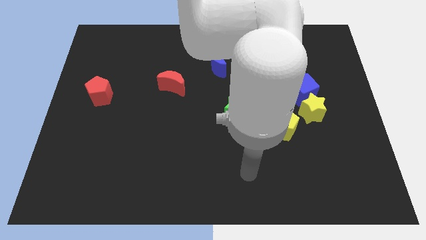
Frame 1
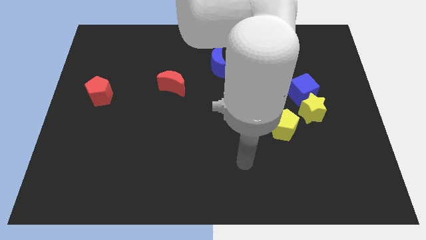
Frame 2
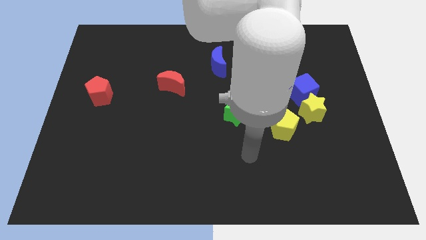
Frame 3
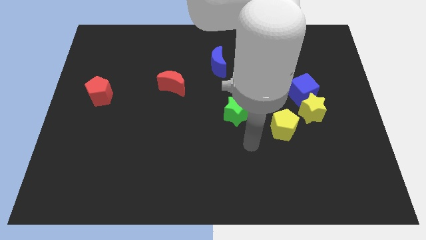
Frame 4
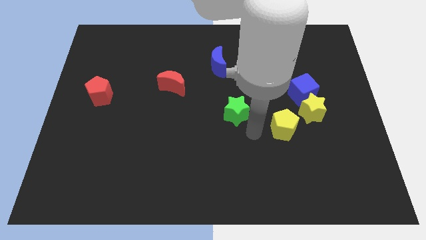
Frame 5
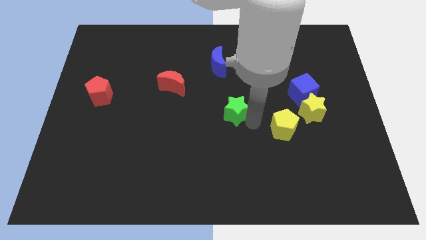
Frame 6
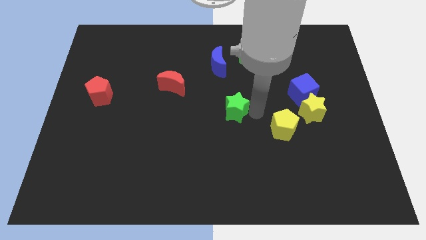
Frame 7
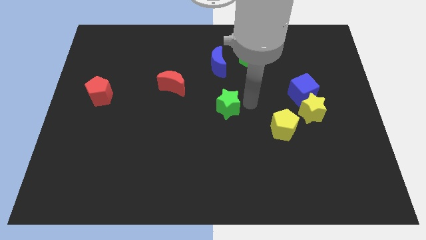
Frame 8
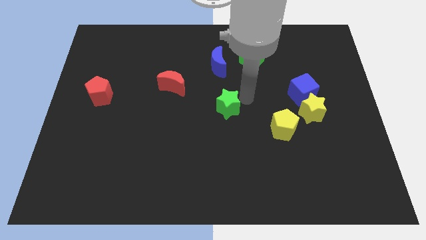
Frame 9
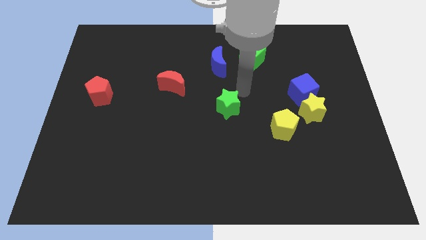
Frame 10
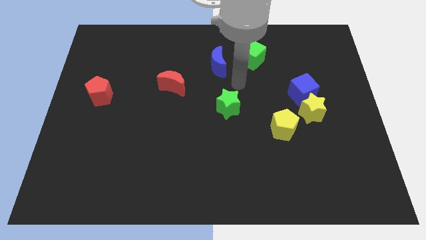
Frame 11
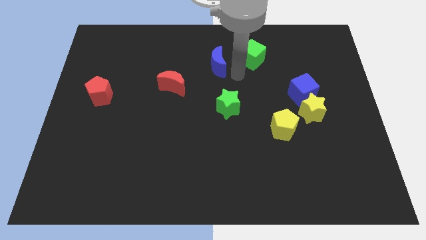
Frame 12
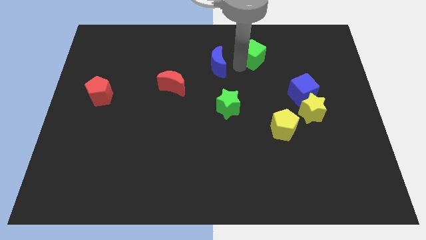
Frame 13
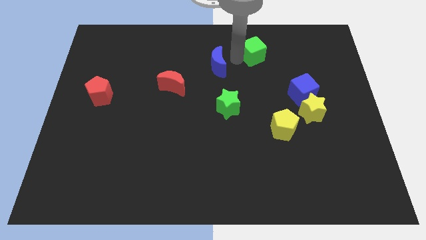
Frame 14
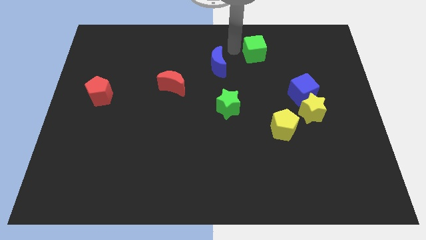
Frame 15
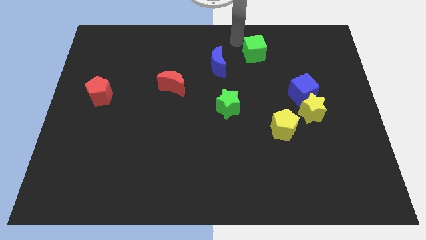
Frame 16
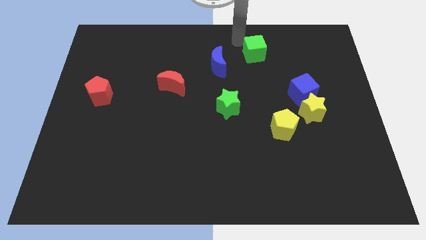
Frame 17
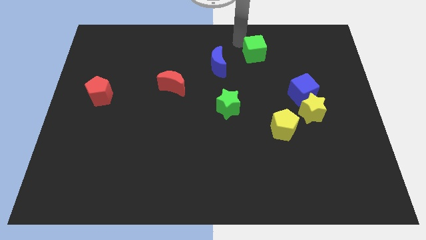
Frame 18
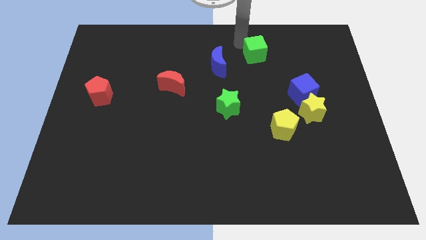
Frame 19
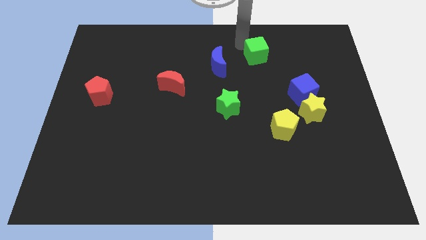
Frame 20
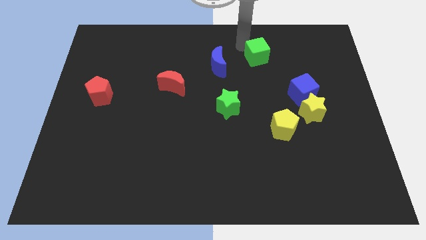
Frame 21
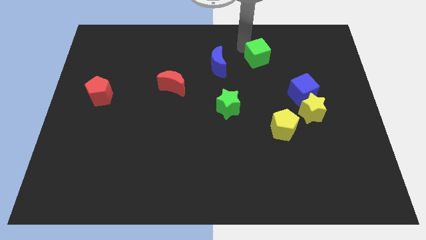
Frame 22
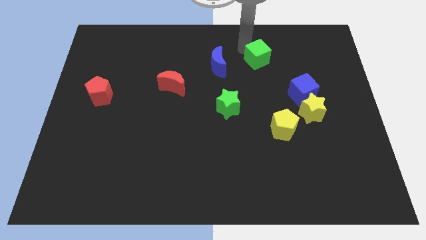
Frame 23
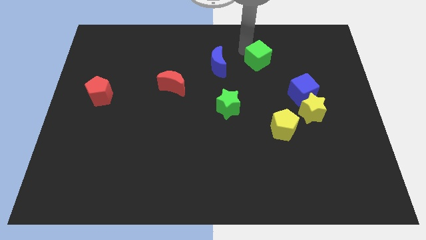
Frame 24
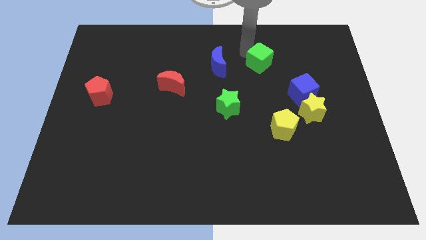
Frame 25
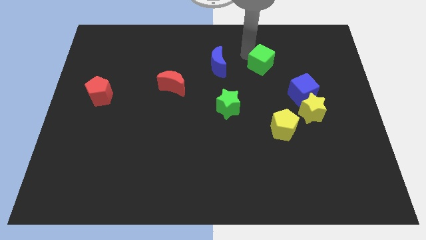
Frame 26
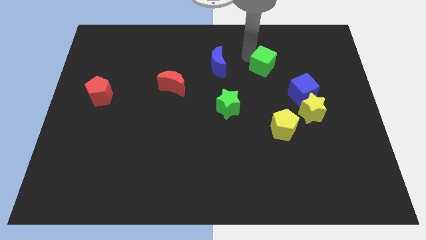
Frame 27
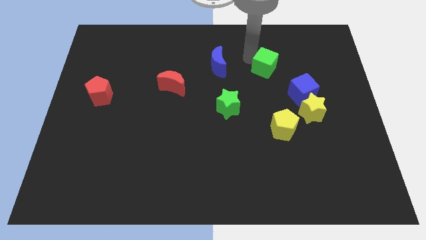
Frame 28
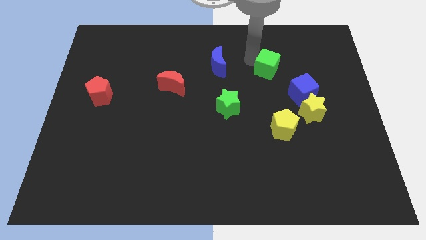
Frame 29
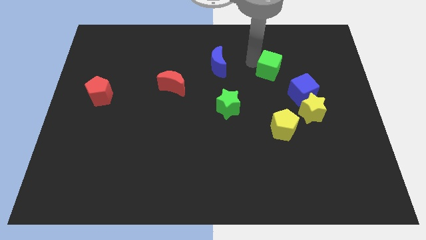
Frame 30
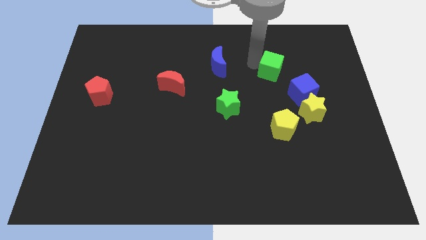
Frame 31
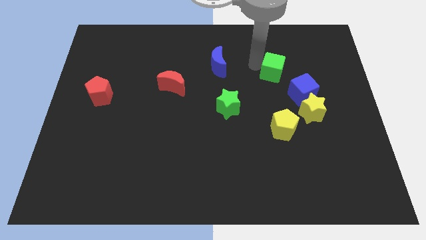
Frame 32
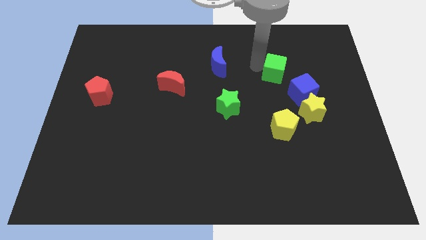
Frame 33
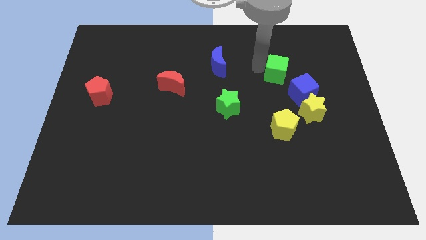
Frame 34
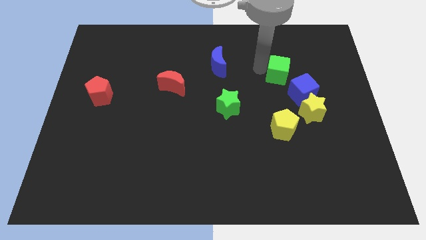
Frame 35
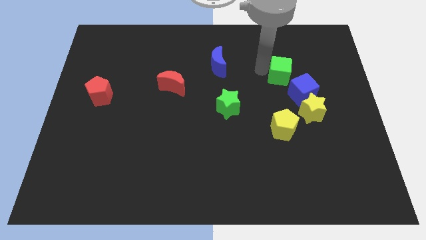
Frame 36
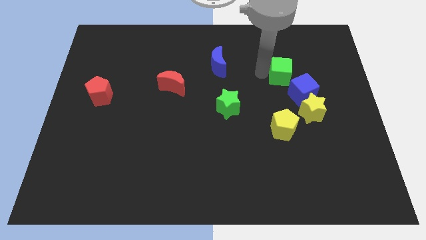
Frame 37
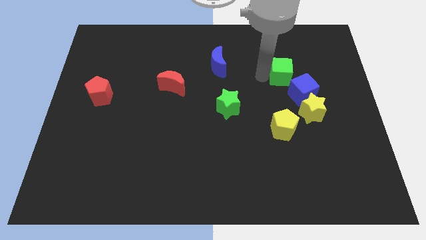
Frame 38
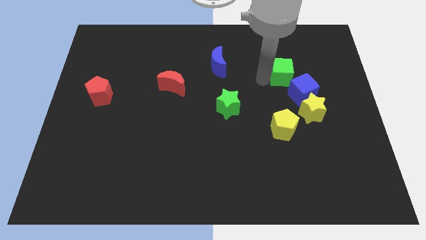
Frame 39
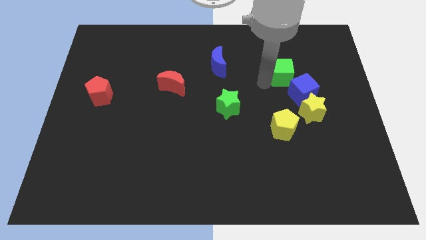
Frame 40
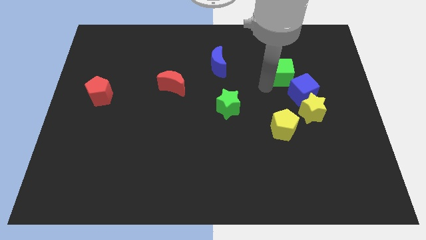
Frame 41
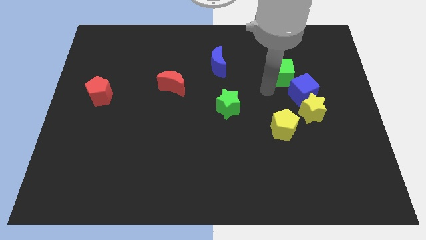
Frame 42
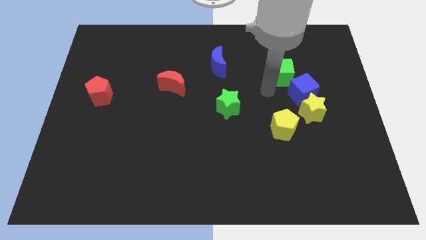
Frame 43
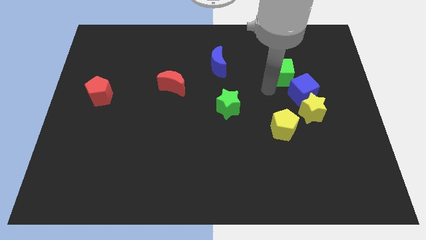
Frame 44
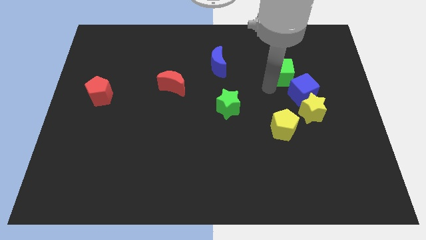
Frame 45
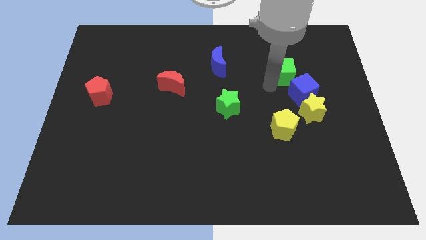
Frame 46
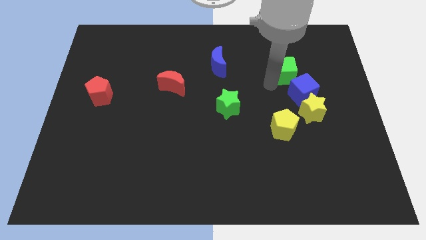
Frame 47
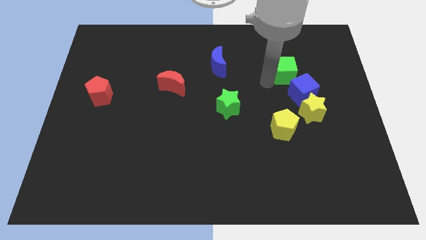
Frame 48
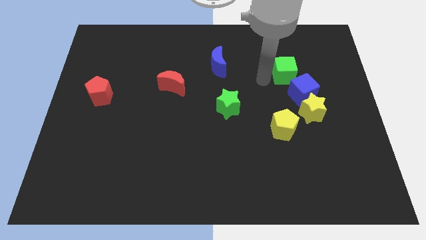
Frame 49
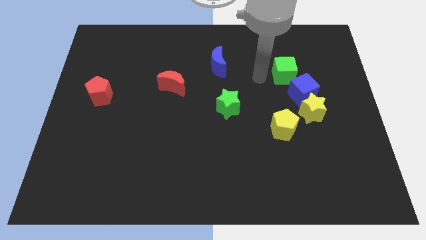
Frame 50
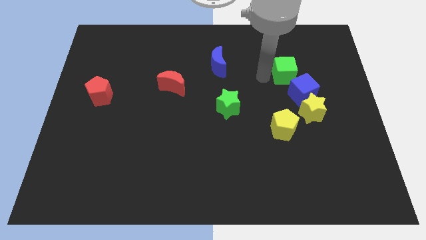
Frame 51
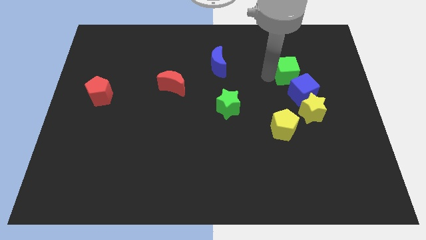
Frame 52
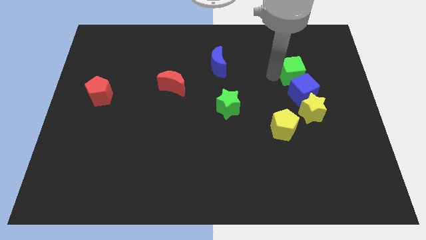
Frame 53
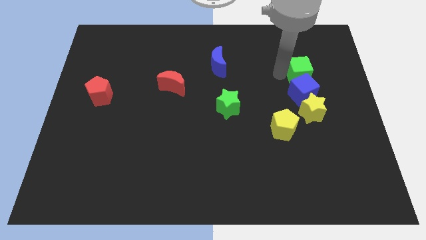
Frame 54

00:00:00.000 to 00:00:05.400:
push the green cube to the top right of the blue cube

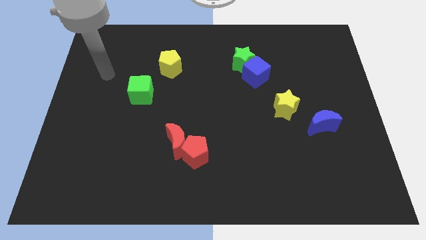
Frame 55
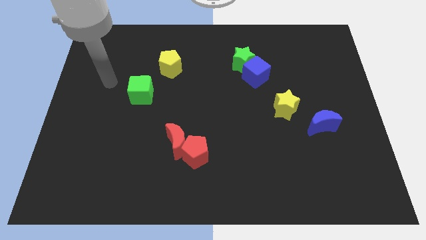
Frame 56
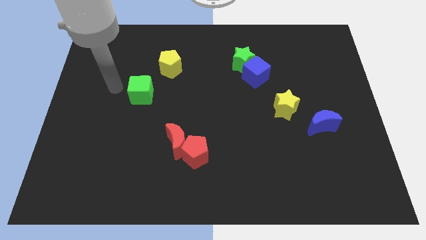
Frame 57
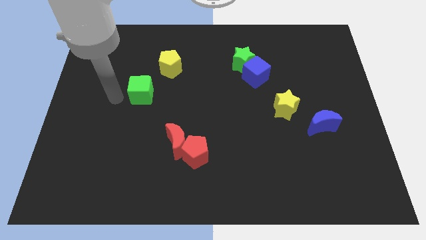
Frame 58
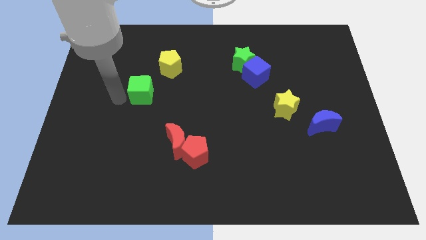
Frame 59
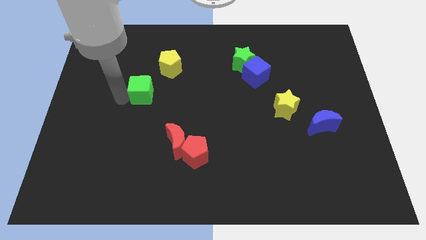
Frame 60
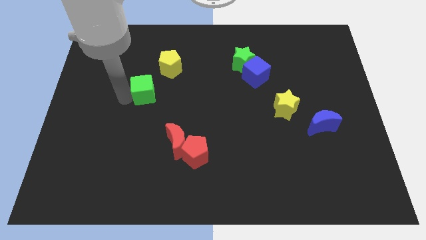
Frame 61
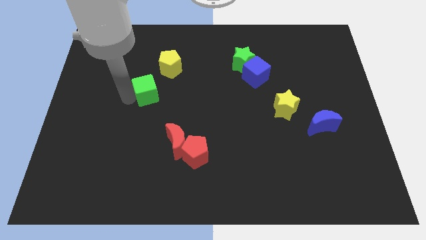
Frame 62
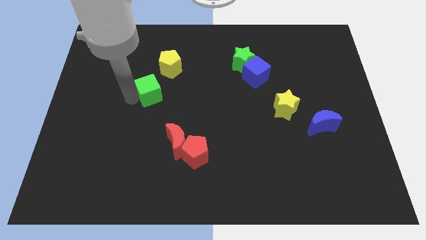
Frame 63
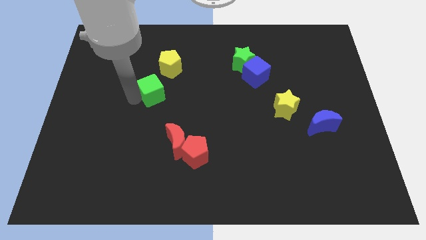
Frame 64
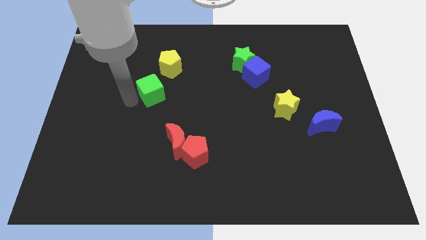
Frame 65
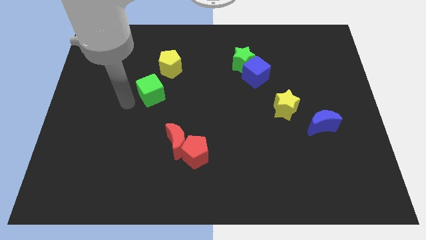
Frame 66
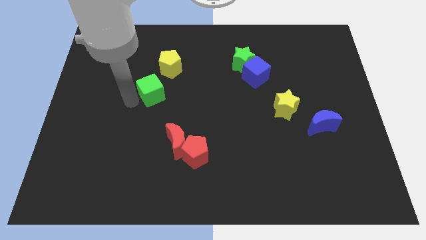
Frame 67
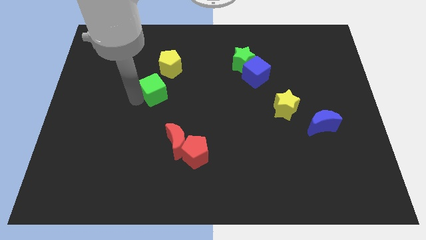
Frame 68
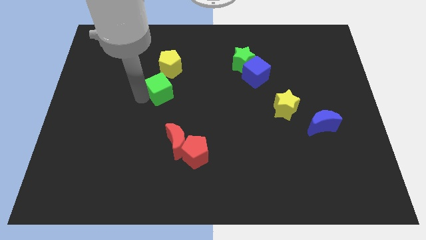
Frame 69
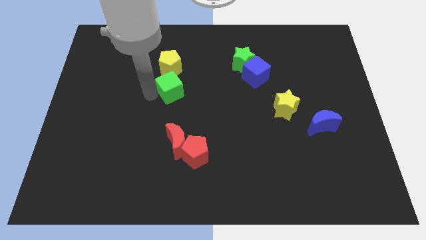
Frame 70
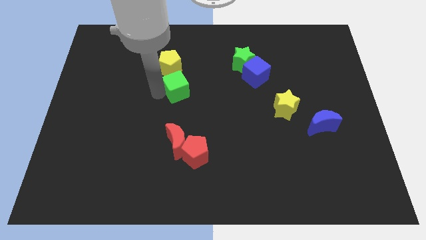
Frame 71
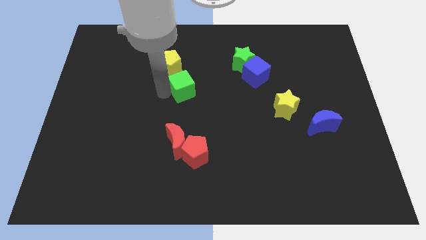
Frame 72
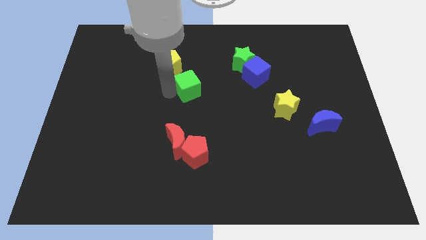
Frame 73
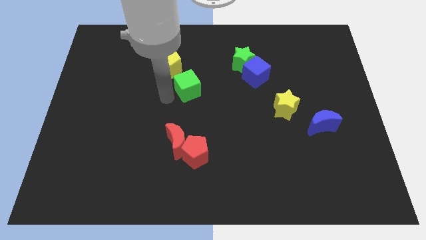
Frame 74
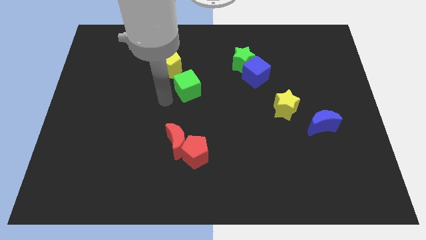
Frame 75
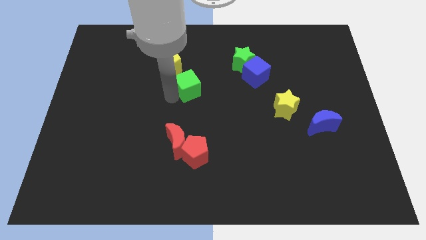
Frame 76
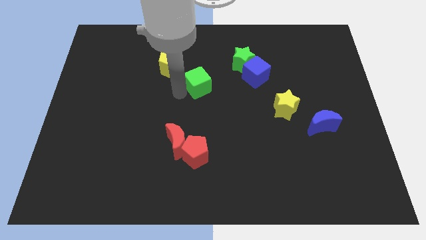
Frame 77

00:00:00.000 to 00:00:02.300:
move the green cube just left of the blue cube
